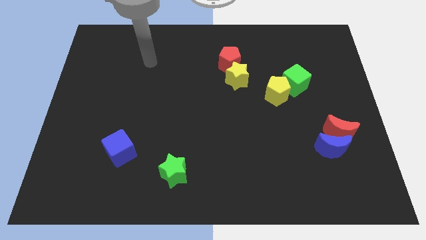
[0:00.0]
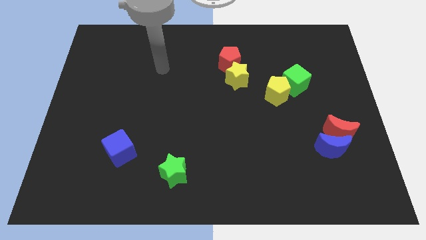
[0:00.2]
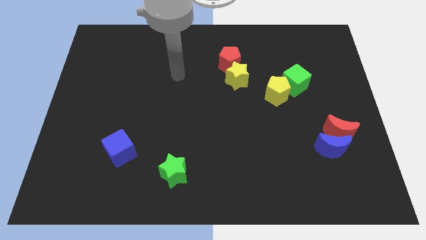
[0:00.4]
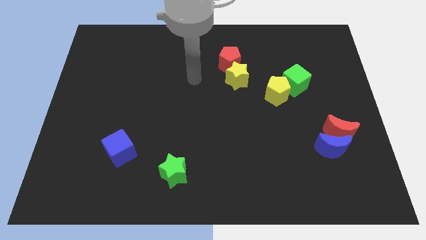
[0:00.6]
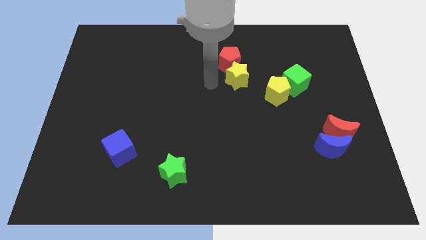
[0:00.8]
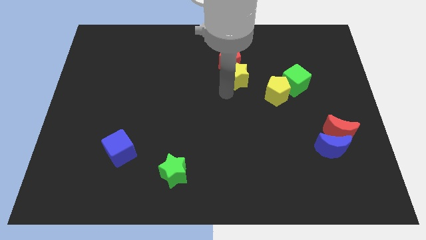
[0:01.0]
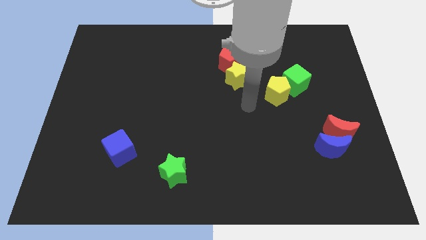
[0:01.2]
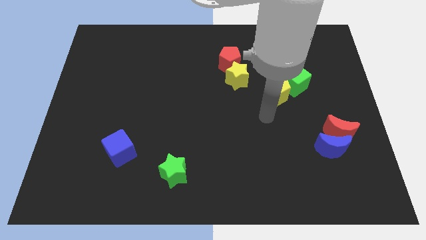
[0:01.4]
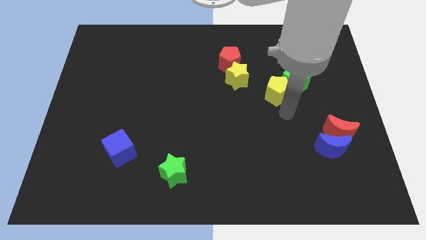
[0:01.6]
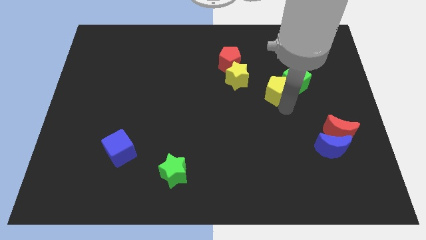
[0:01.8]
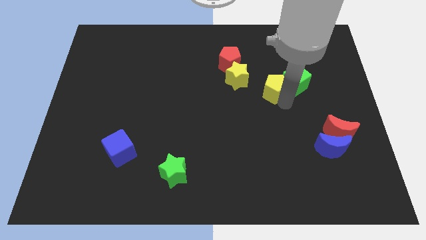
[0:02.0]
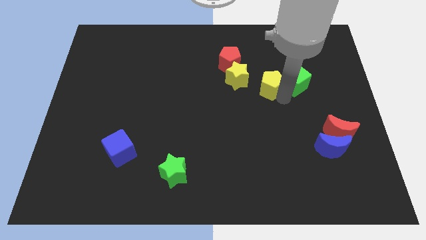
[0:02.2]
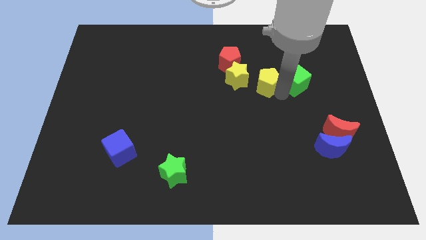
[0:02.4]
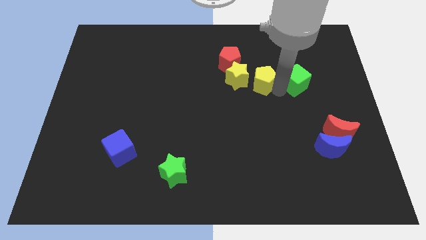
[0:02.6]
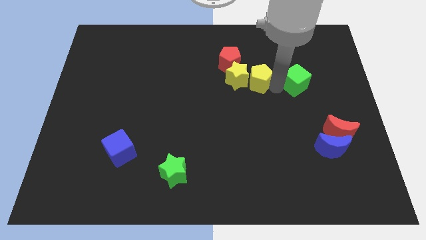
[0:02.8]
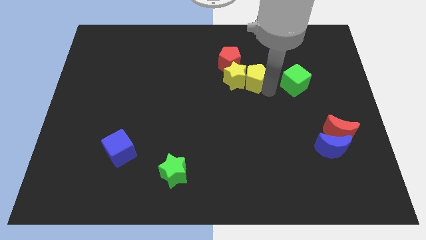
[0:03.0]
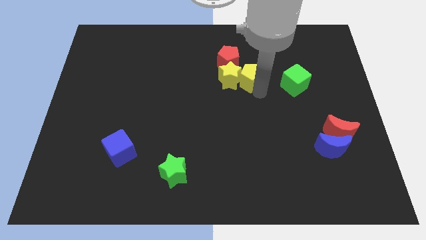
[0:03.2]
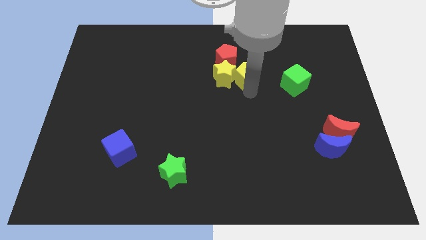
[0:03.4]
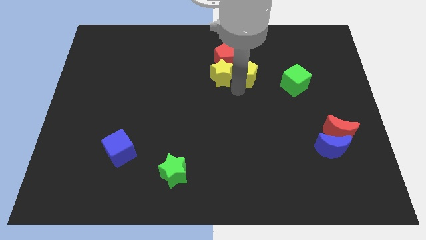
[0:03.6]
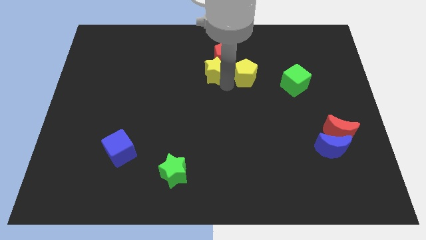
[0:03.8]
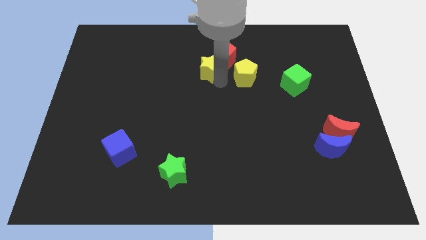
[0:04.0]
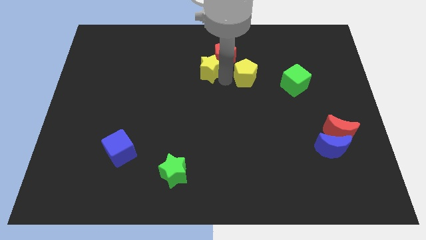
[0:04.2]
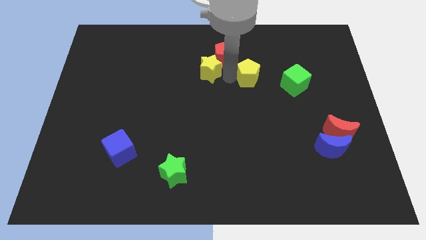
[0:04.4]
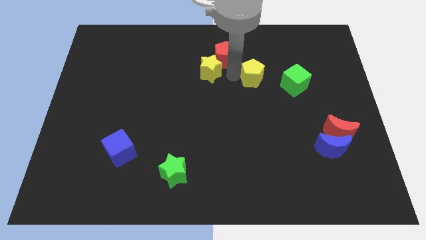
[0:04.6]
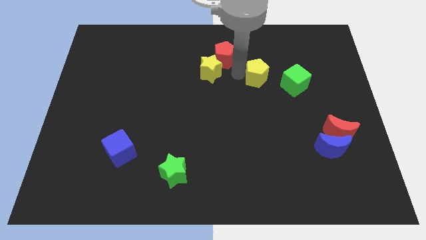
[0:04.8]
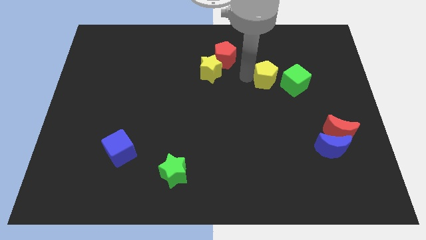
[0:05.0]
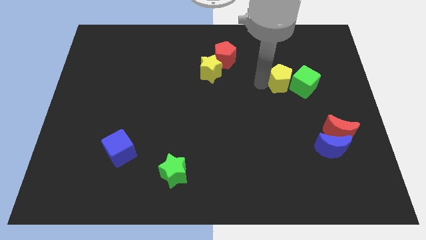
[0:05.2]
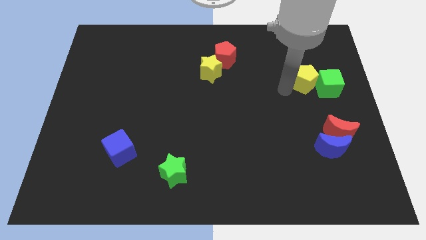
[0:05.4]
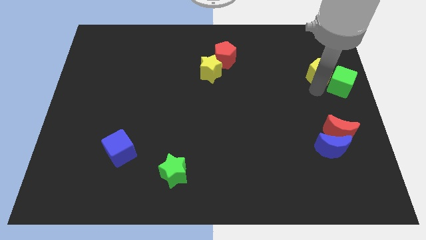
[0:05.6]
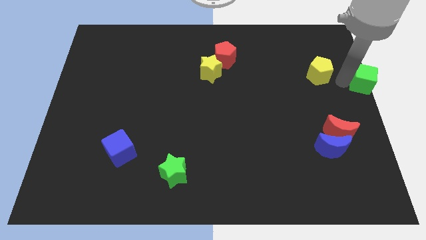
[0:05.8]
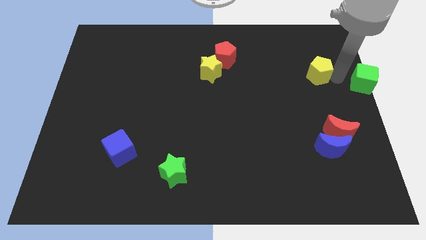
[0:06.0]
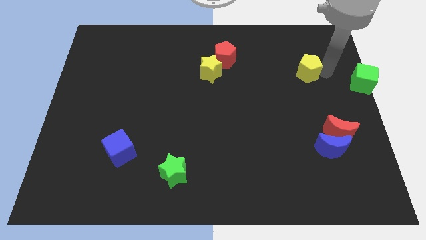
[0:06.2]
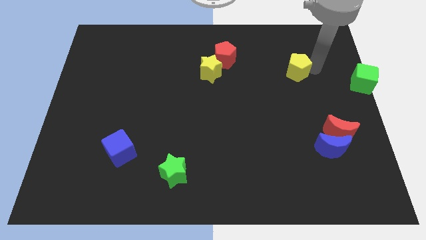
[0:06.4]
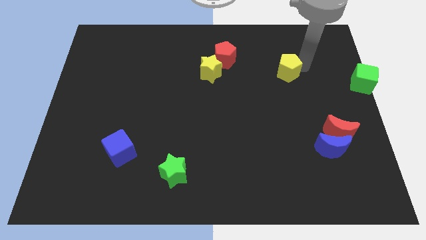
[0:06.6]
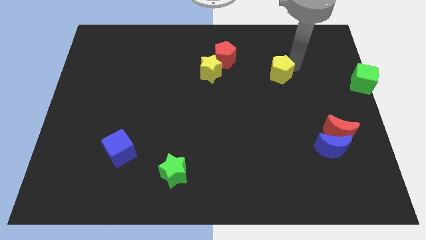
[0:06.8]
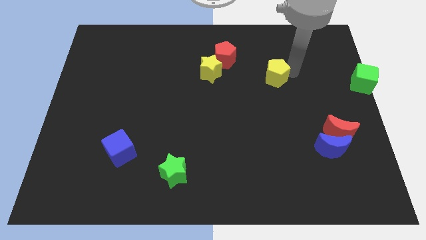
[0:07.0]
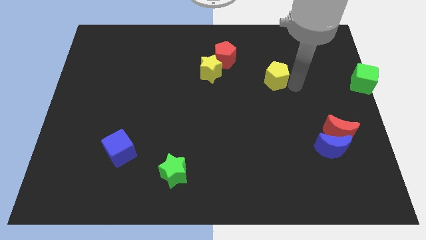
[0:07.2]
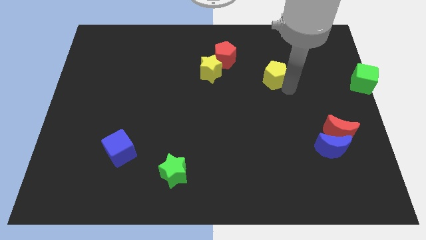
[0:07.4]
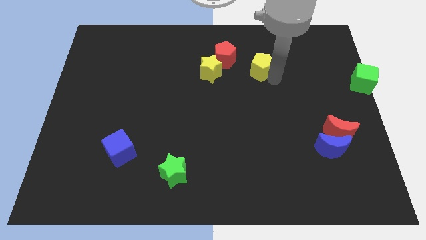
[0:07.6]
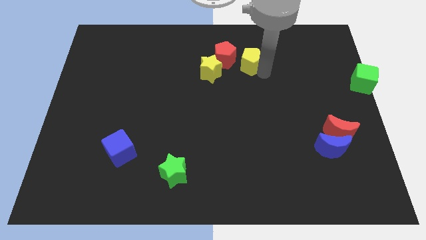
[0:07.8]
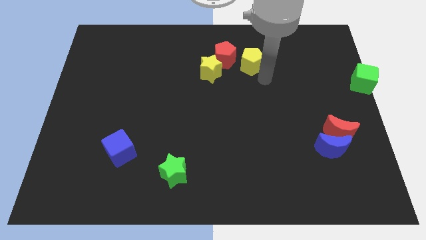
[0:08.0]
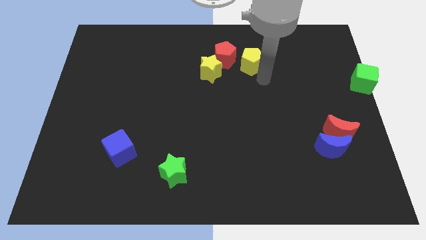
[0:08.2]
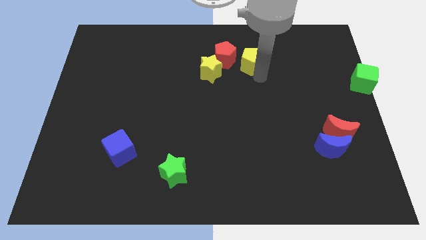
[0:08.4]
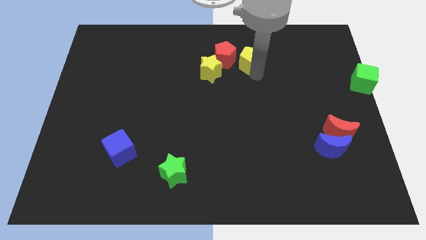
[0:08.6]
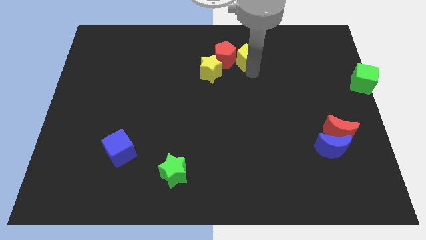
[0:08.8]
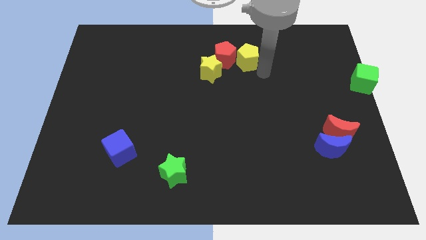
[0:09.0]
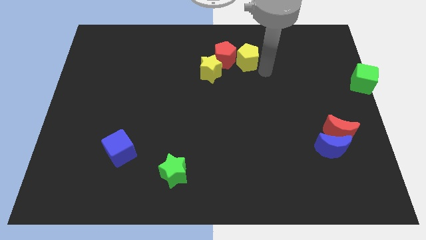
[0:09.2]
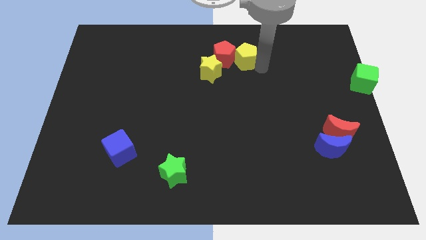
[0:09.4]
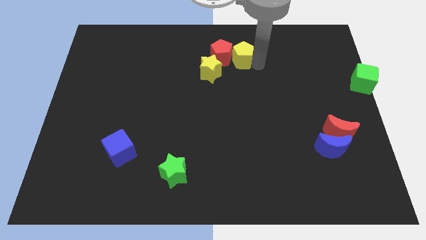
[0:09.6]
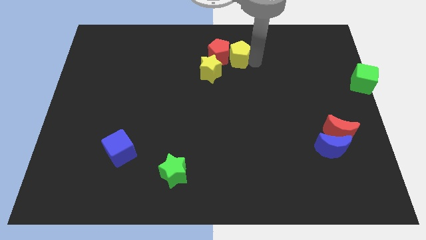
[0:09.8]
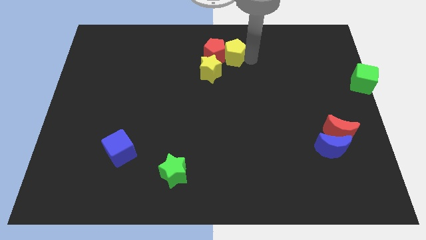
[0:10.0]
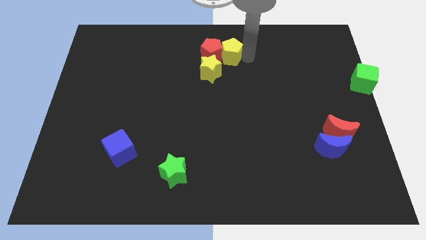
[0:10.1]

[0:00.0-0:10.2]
push the yellow pentagon to the towards your base

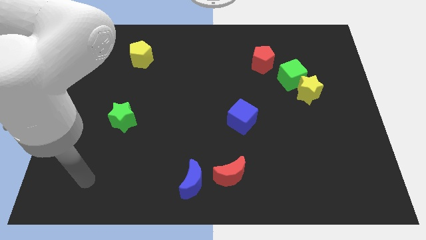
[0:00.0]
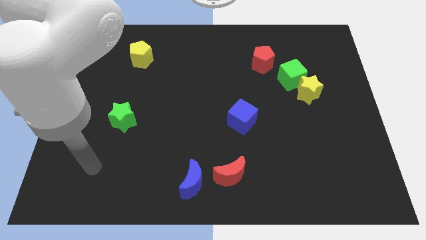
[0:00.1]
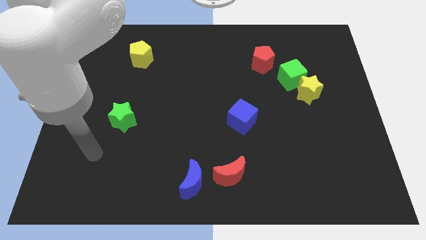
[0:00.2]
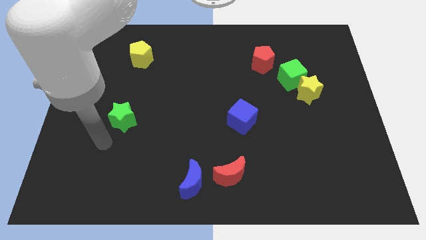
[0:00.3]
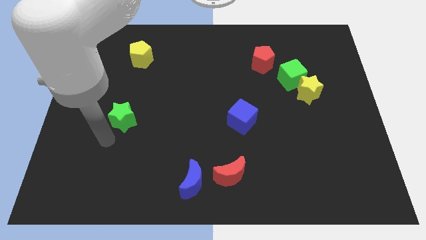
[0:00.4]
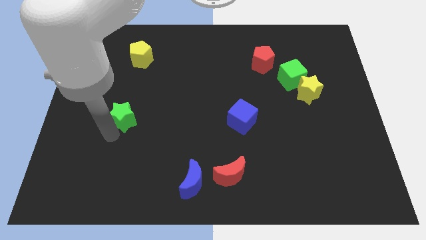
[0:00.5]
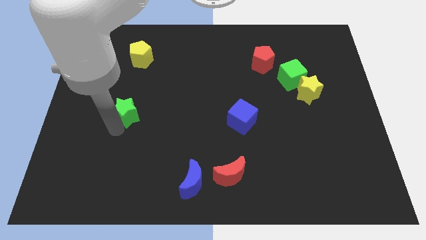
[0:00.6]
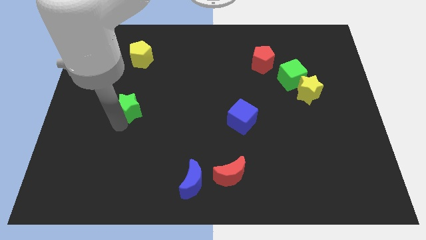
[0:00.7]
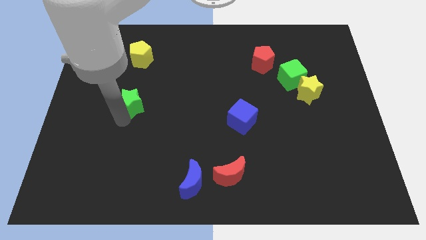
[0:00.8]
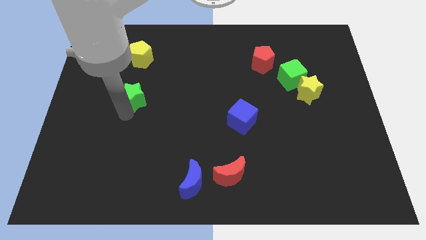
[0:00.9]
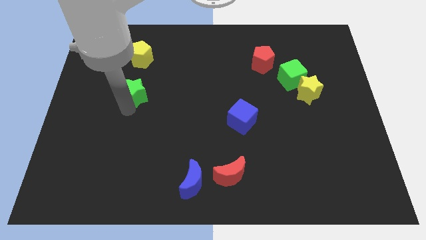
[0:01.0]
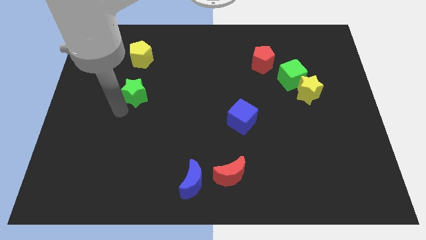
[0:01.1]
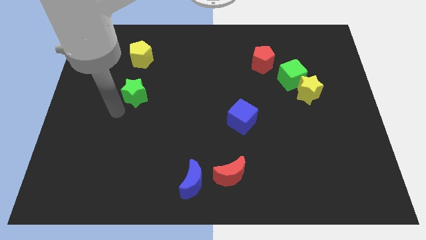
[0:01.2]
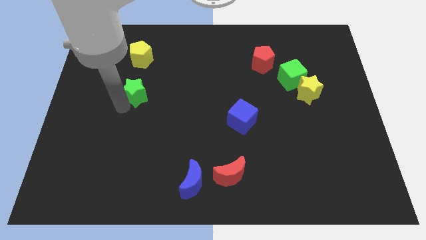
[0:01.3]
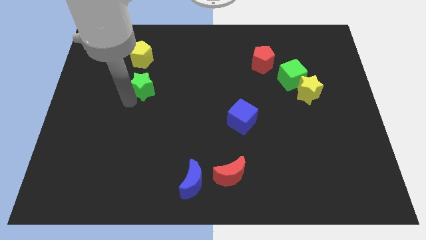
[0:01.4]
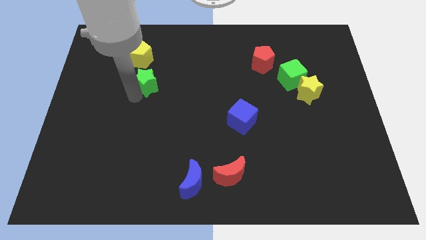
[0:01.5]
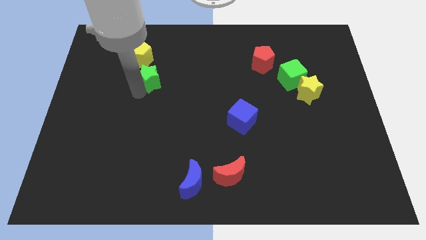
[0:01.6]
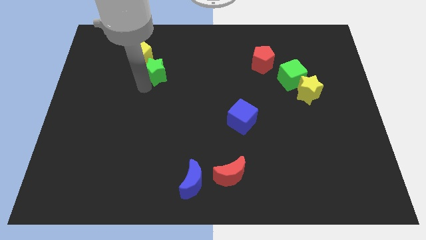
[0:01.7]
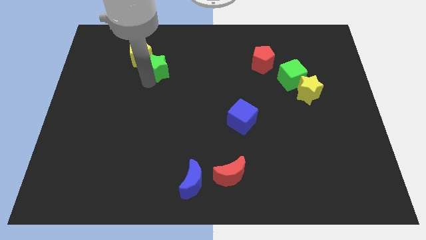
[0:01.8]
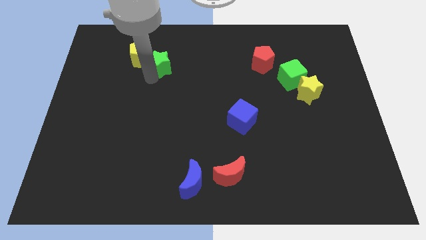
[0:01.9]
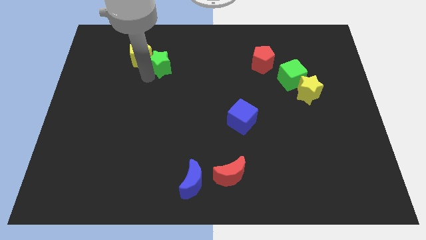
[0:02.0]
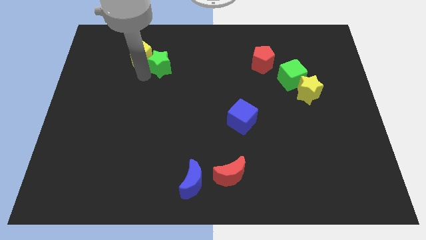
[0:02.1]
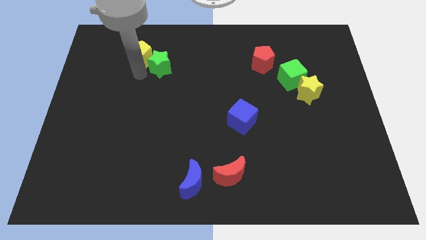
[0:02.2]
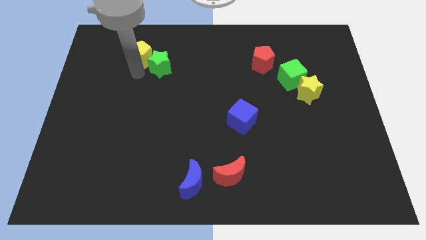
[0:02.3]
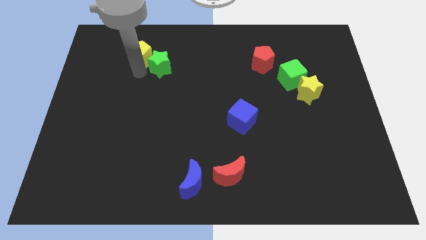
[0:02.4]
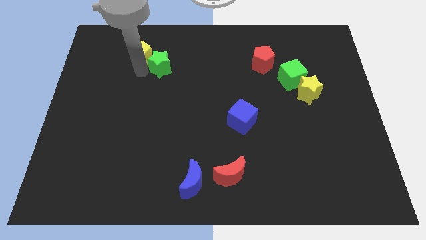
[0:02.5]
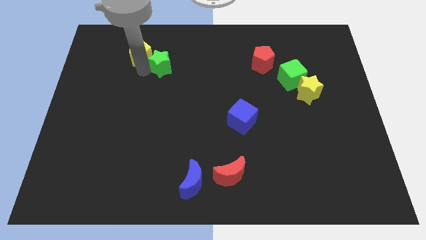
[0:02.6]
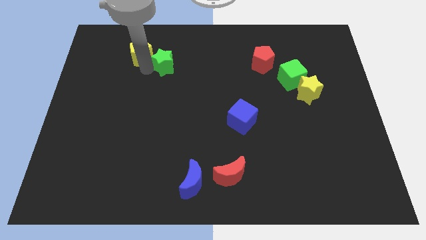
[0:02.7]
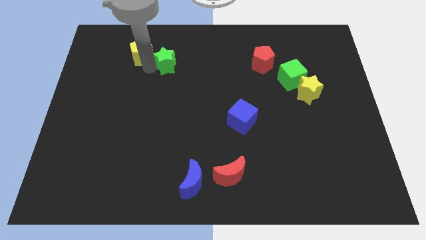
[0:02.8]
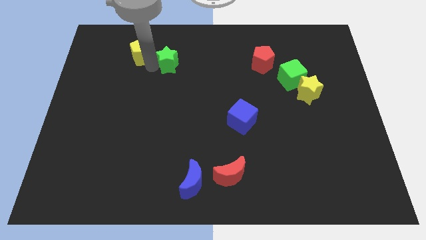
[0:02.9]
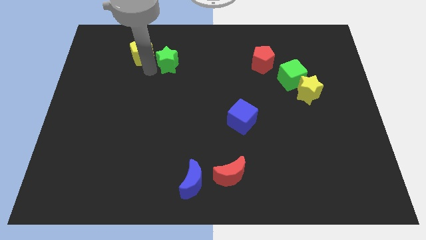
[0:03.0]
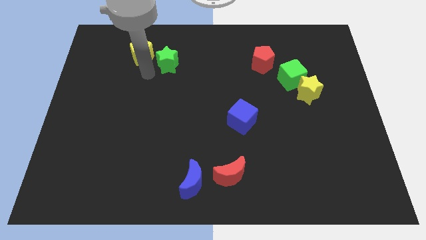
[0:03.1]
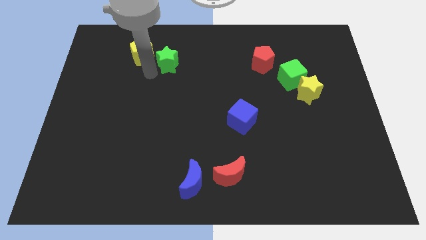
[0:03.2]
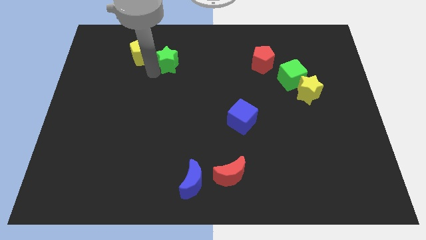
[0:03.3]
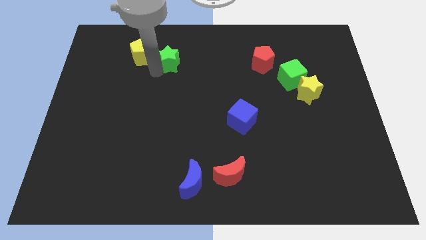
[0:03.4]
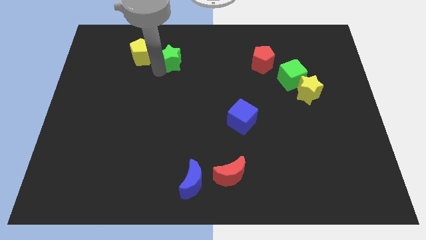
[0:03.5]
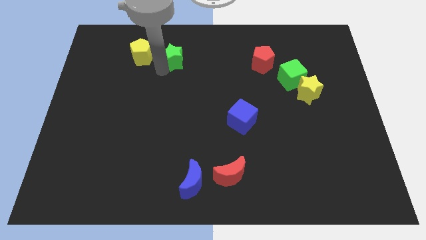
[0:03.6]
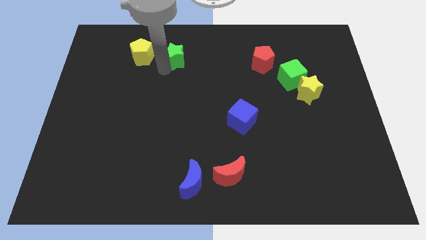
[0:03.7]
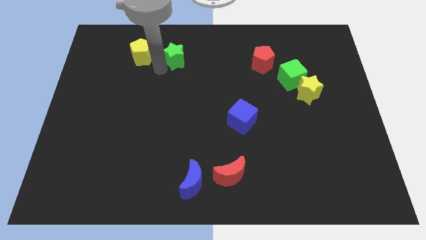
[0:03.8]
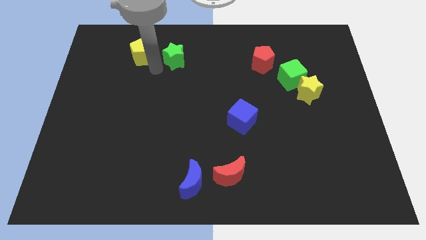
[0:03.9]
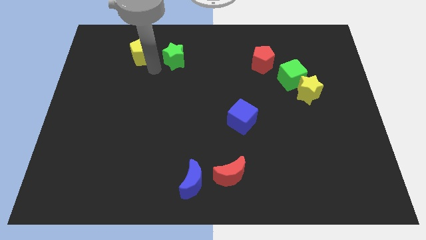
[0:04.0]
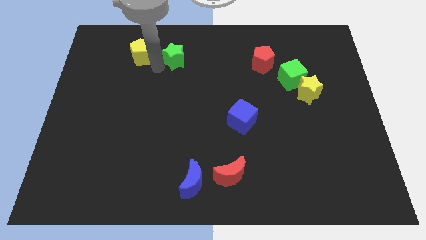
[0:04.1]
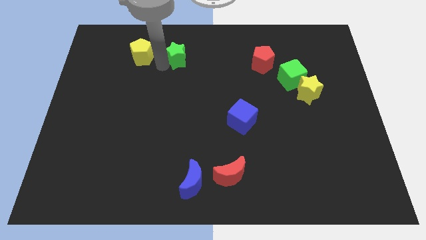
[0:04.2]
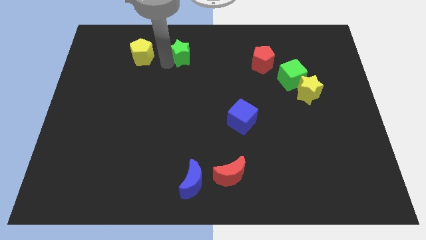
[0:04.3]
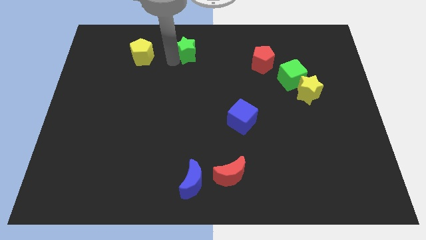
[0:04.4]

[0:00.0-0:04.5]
slide the green star to the towards your base
